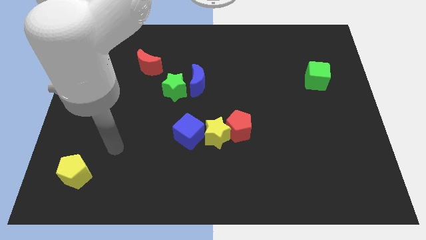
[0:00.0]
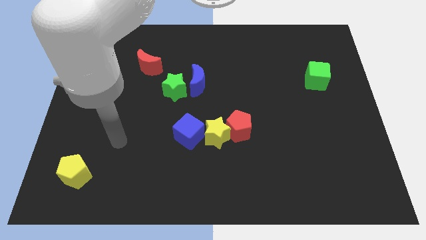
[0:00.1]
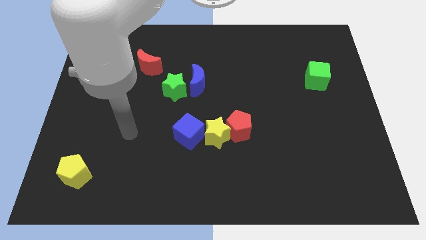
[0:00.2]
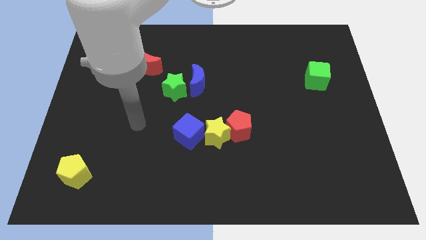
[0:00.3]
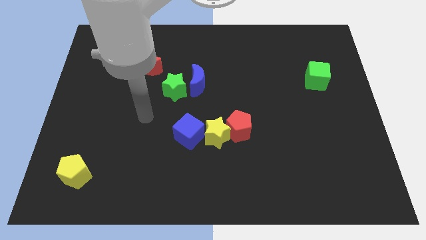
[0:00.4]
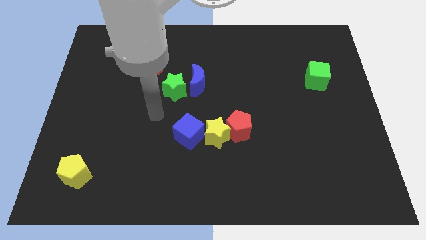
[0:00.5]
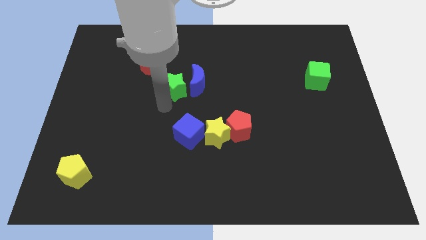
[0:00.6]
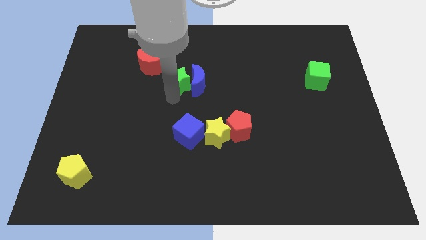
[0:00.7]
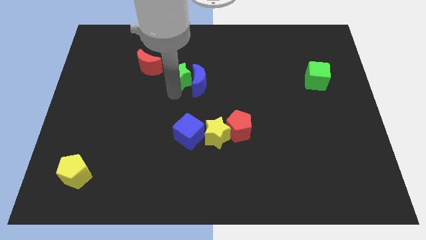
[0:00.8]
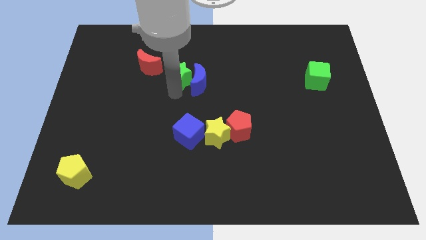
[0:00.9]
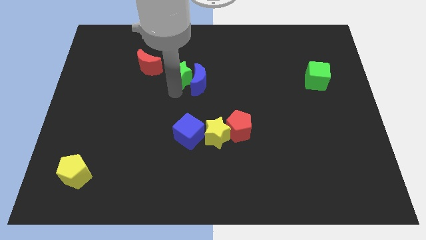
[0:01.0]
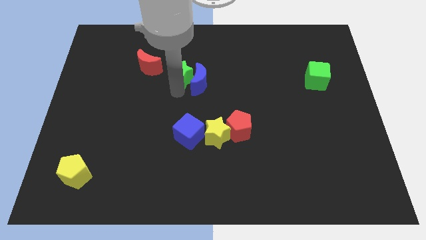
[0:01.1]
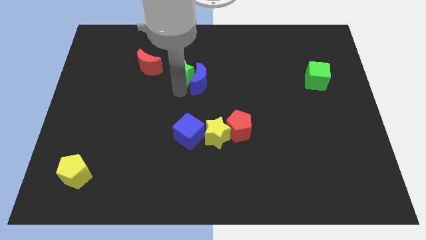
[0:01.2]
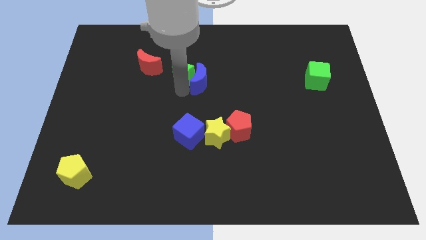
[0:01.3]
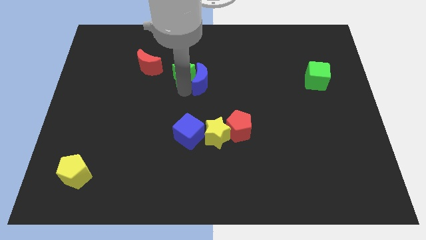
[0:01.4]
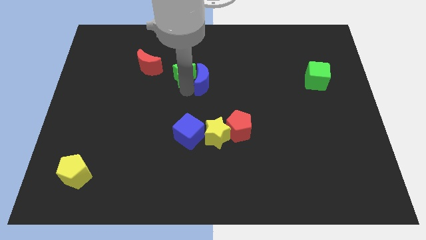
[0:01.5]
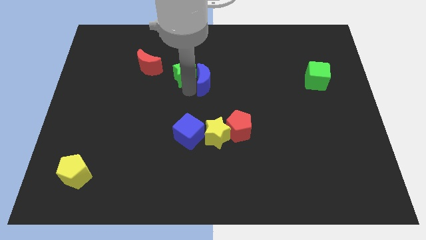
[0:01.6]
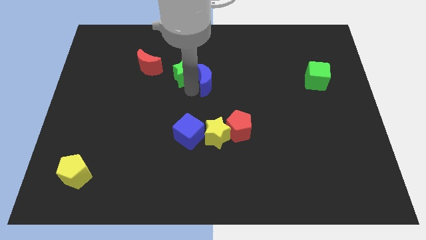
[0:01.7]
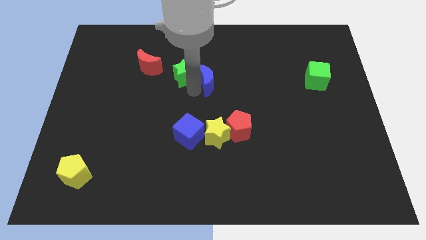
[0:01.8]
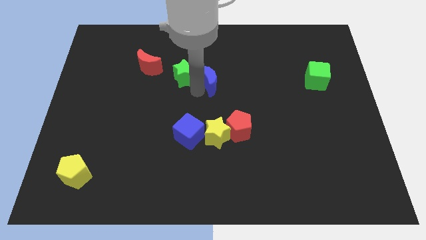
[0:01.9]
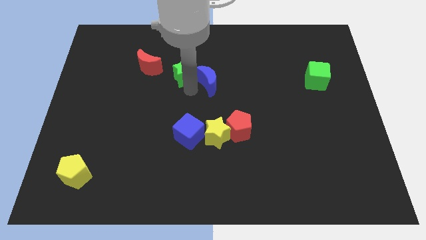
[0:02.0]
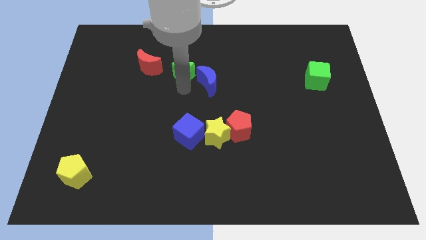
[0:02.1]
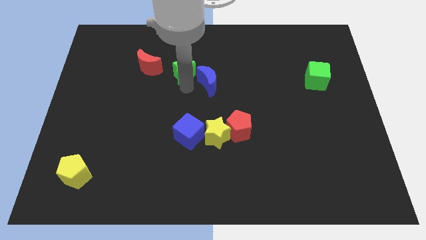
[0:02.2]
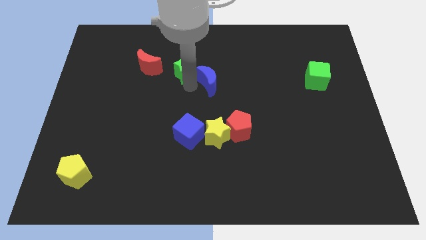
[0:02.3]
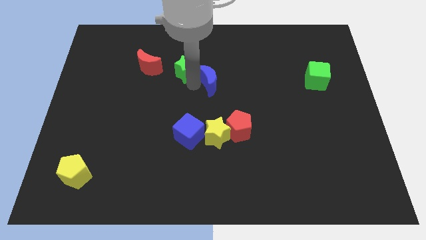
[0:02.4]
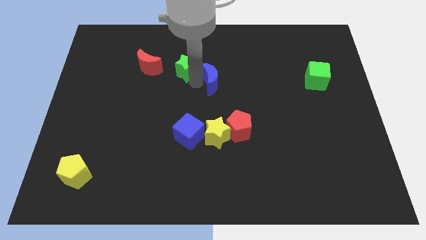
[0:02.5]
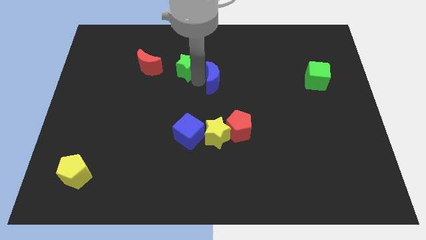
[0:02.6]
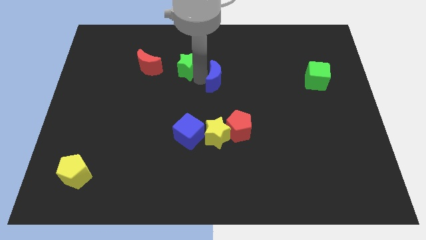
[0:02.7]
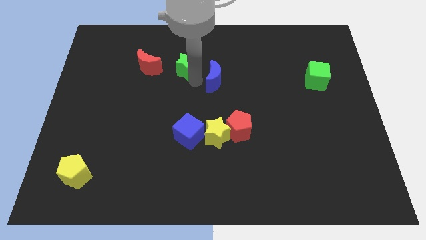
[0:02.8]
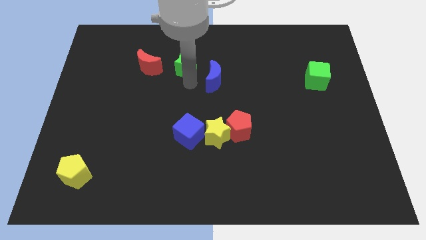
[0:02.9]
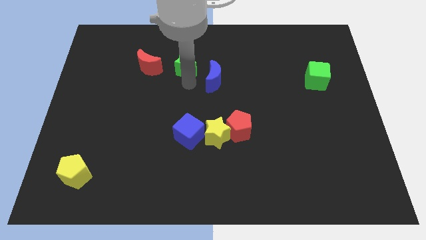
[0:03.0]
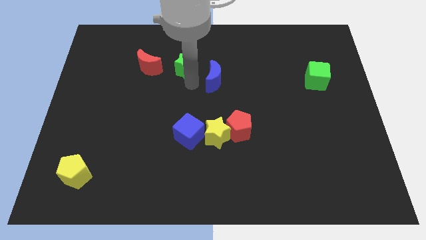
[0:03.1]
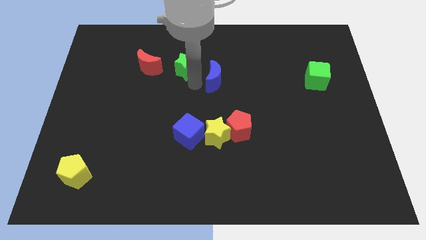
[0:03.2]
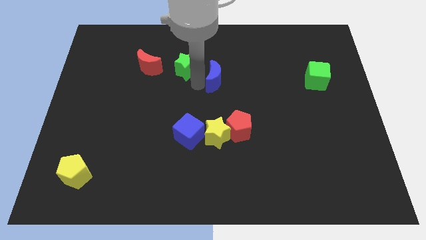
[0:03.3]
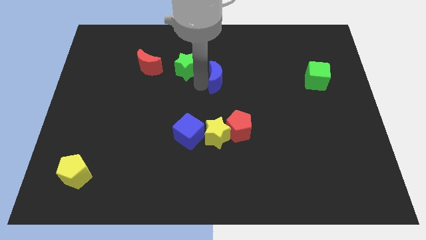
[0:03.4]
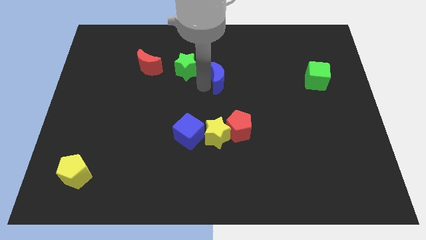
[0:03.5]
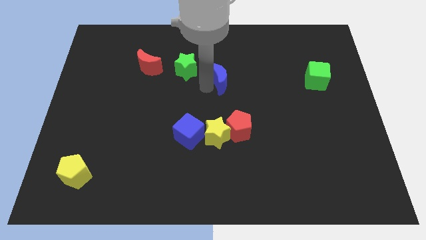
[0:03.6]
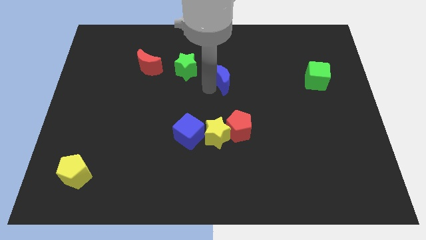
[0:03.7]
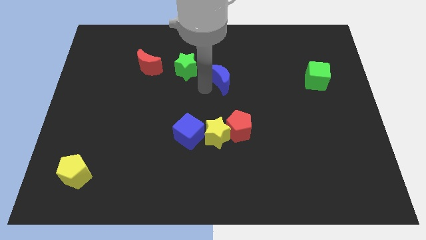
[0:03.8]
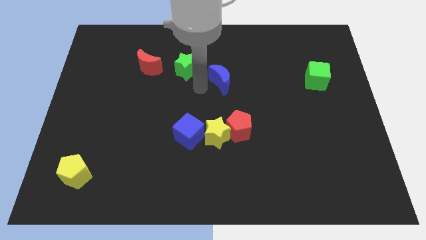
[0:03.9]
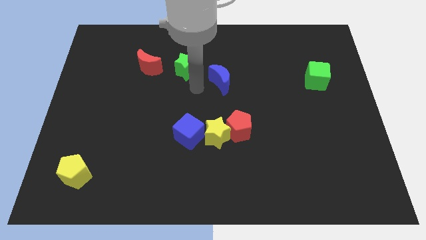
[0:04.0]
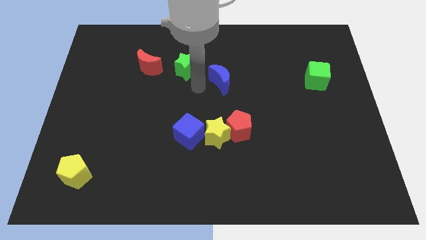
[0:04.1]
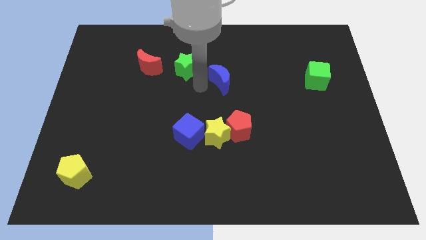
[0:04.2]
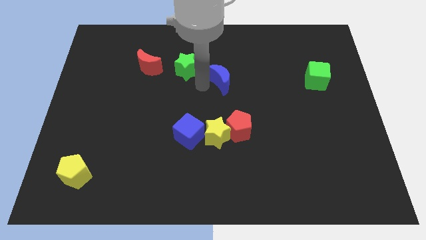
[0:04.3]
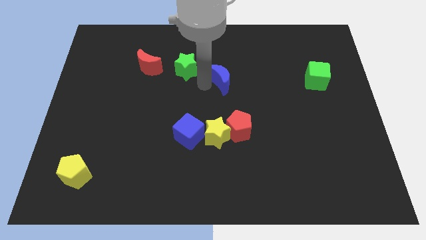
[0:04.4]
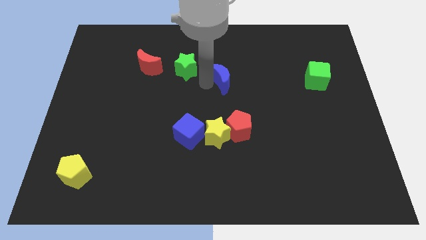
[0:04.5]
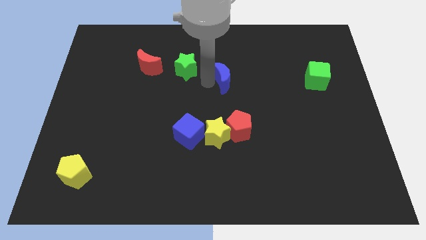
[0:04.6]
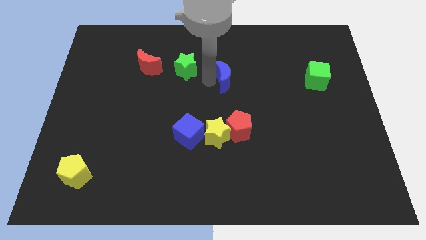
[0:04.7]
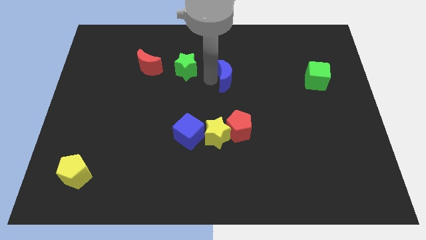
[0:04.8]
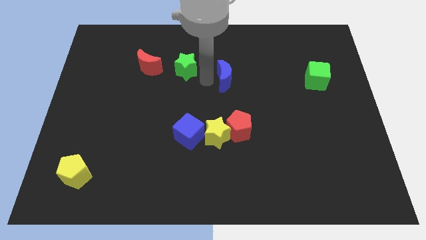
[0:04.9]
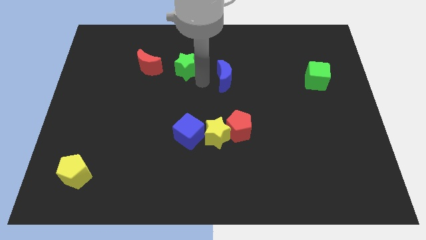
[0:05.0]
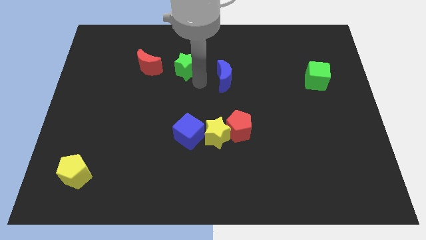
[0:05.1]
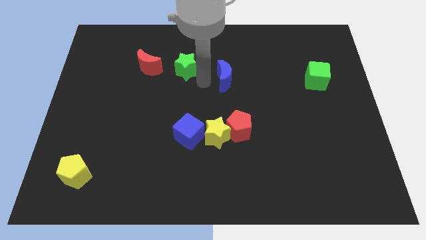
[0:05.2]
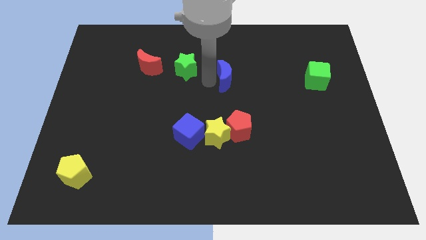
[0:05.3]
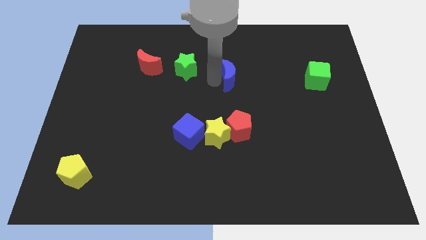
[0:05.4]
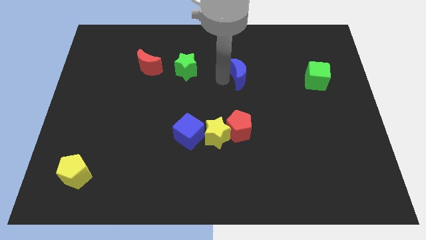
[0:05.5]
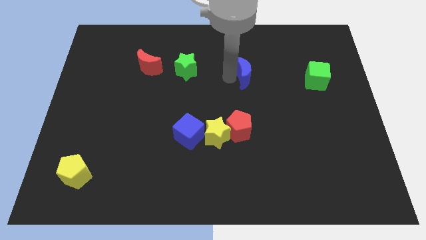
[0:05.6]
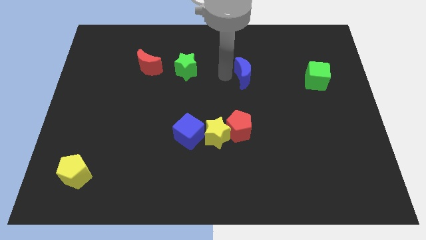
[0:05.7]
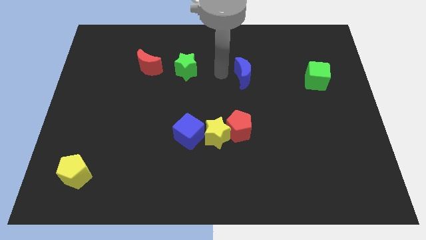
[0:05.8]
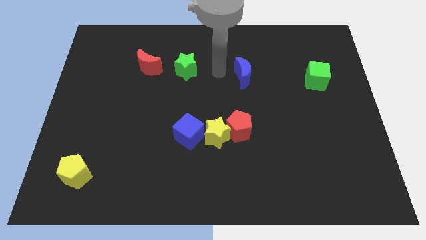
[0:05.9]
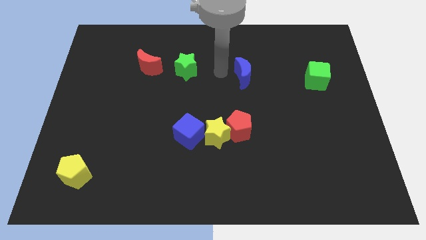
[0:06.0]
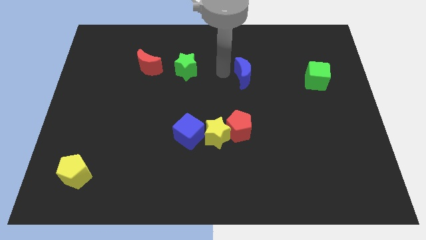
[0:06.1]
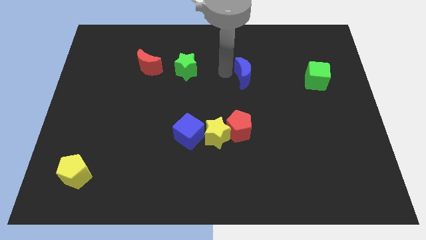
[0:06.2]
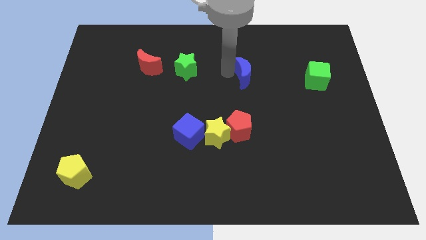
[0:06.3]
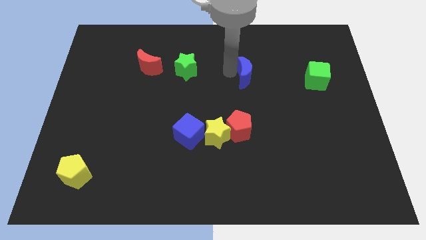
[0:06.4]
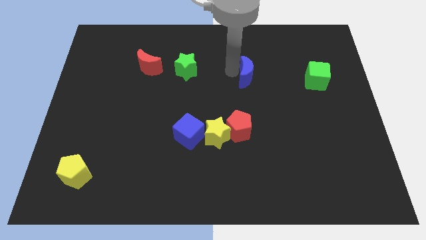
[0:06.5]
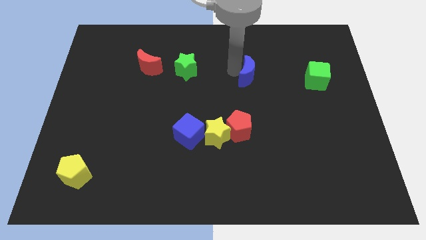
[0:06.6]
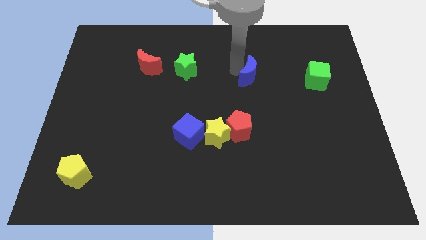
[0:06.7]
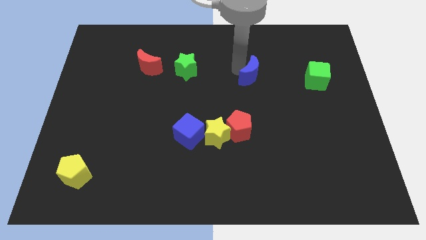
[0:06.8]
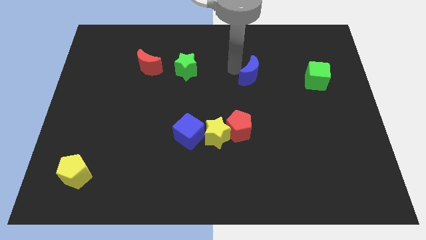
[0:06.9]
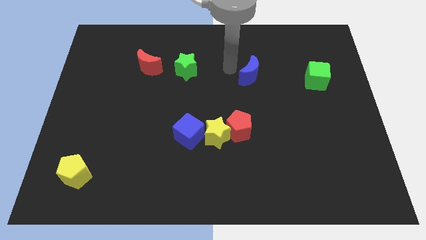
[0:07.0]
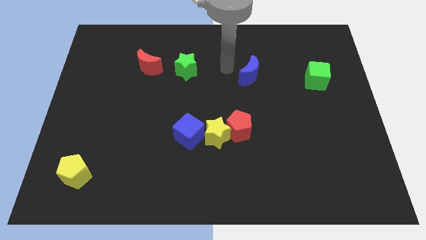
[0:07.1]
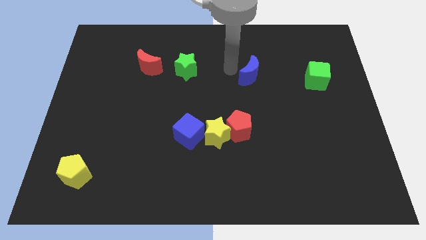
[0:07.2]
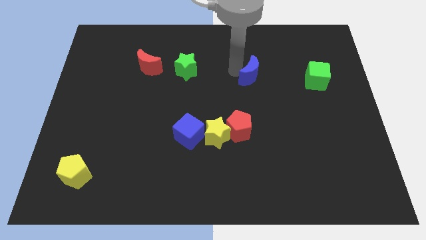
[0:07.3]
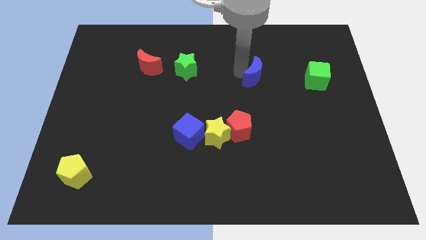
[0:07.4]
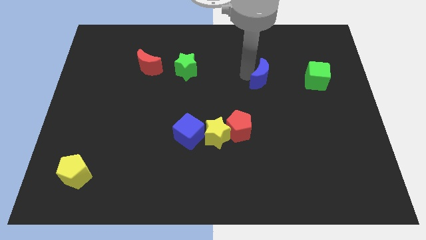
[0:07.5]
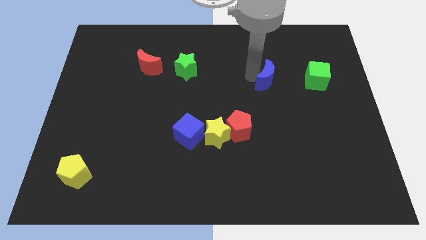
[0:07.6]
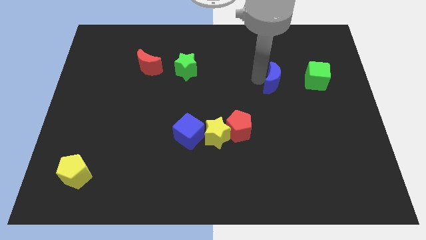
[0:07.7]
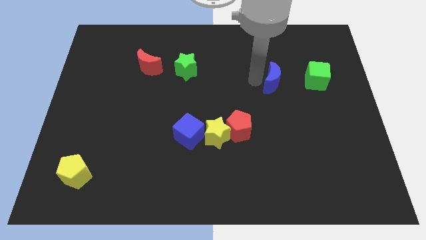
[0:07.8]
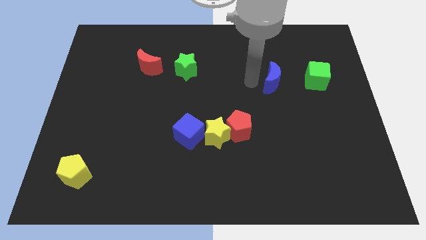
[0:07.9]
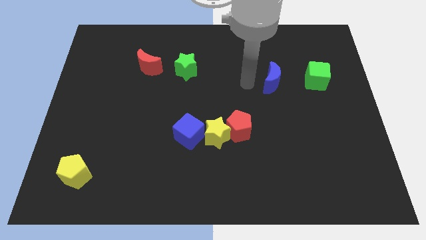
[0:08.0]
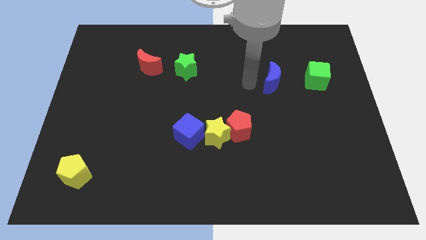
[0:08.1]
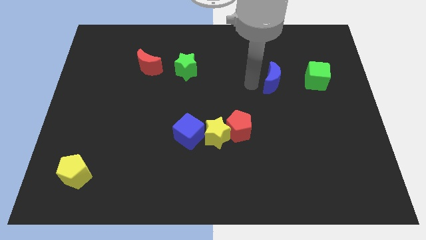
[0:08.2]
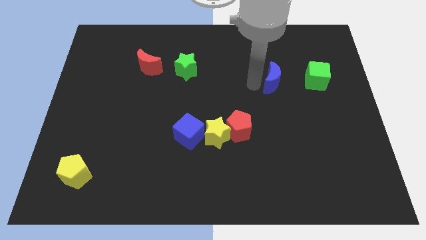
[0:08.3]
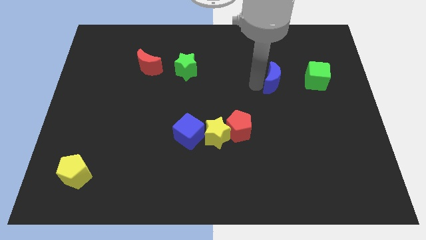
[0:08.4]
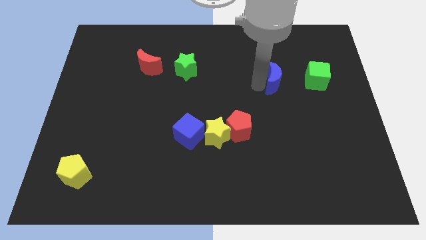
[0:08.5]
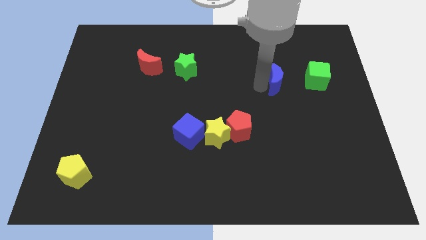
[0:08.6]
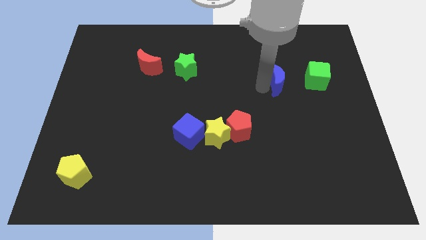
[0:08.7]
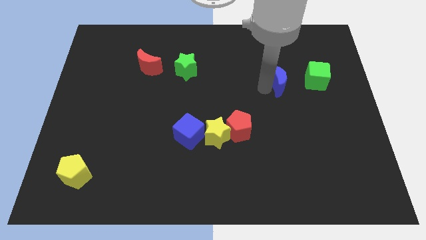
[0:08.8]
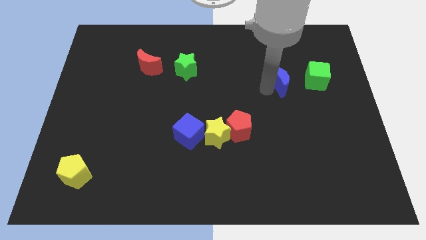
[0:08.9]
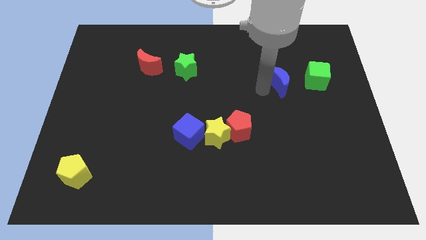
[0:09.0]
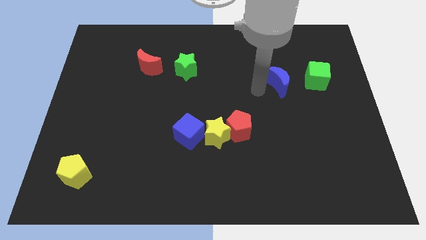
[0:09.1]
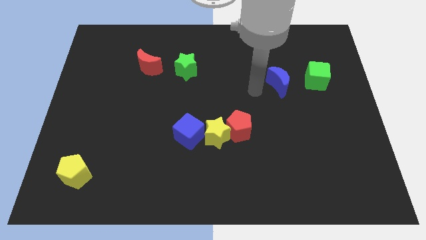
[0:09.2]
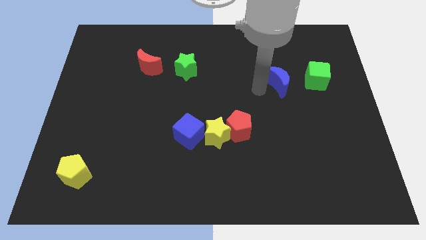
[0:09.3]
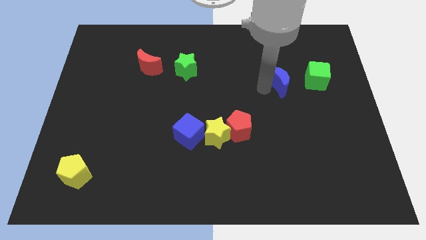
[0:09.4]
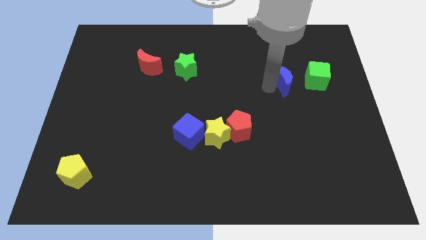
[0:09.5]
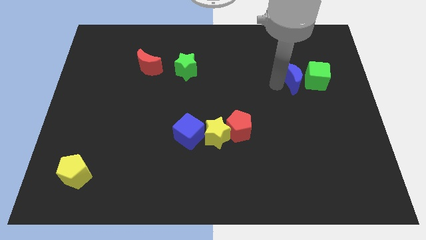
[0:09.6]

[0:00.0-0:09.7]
put the blue moon to the green cube
